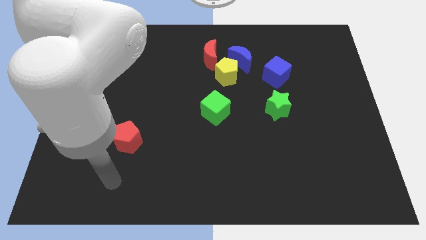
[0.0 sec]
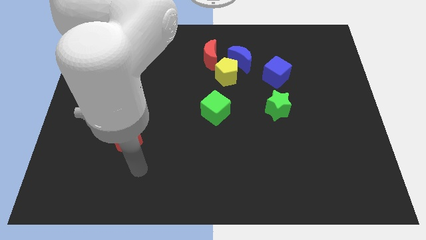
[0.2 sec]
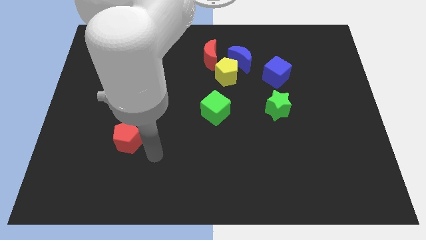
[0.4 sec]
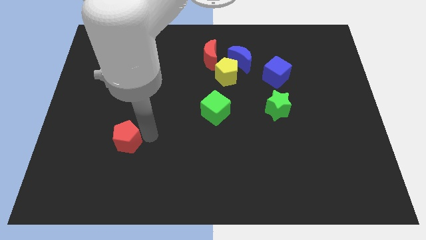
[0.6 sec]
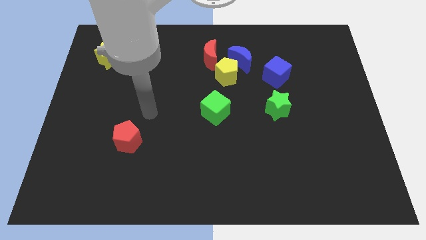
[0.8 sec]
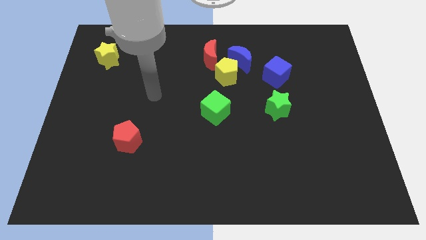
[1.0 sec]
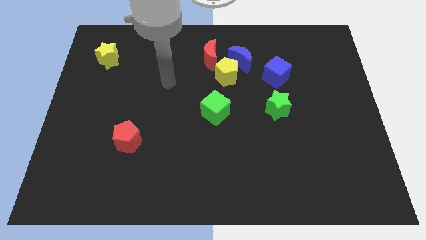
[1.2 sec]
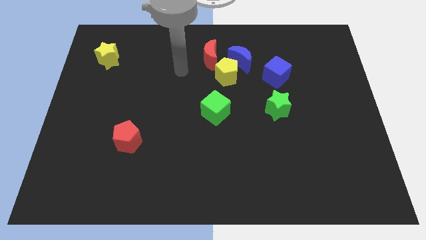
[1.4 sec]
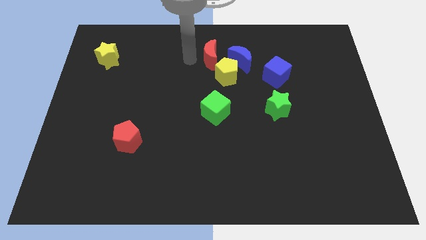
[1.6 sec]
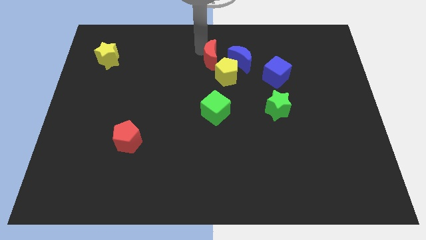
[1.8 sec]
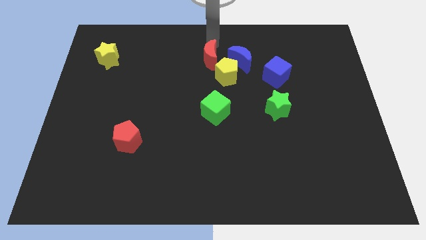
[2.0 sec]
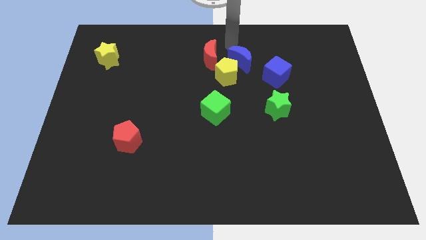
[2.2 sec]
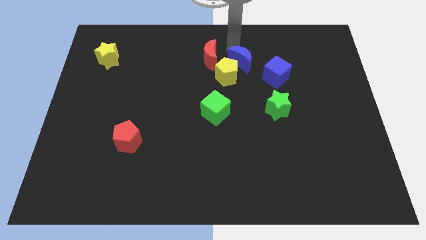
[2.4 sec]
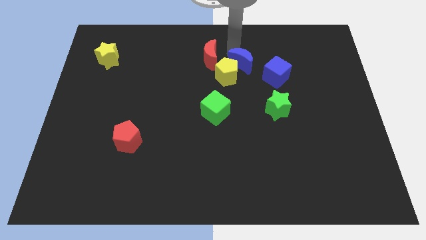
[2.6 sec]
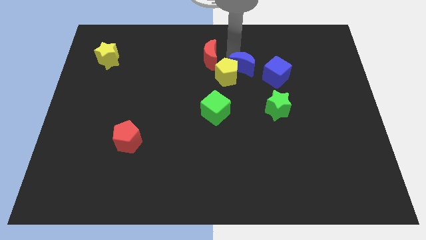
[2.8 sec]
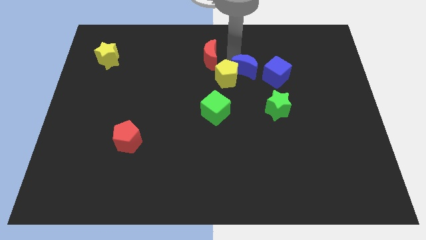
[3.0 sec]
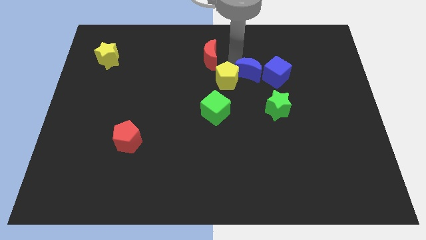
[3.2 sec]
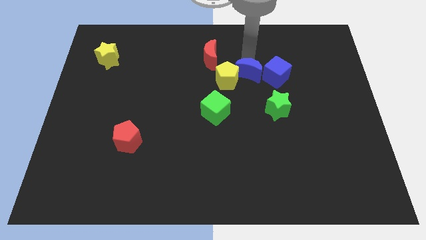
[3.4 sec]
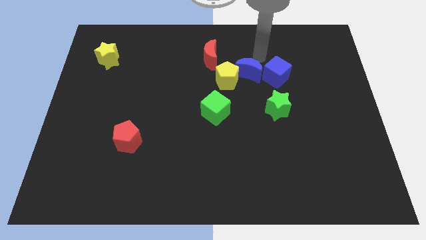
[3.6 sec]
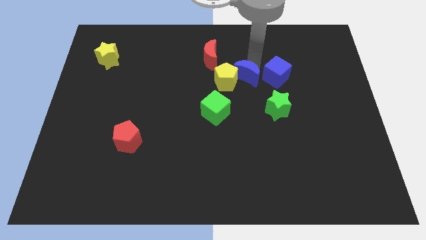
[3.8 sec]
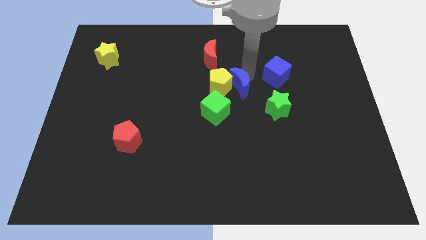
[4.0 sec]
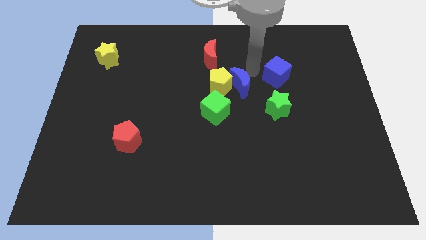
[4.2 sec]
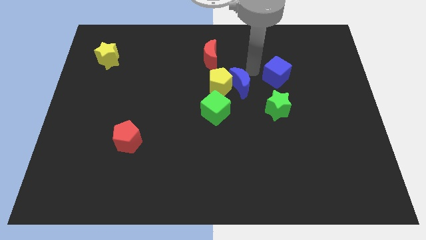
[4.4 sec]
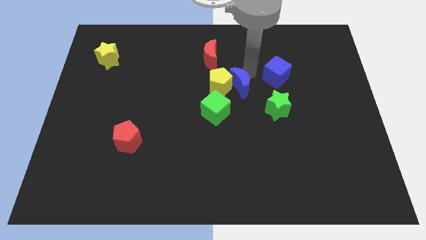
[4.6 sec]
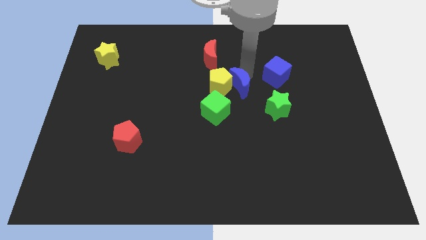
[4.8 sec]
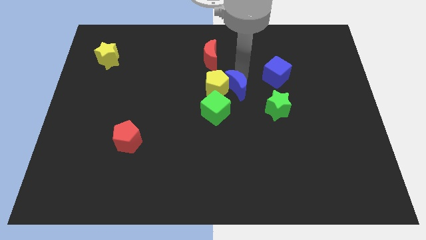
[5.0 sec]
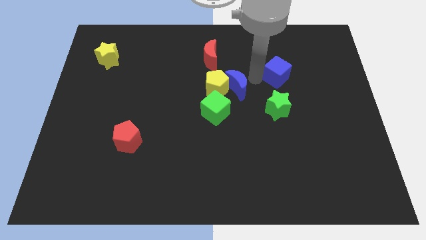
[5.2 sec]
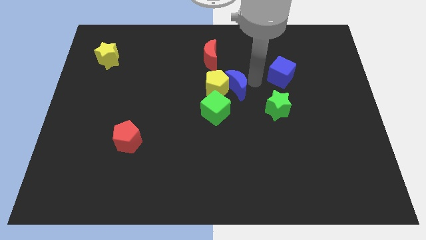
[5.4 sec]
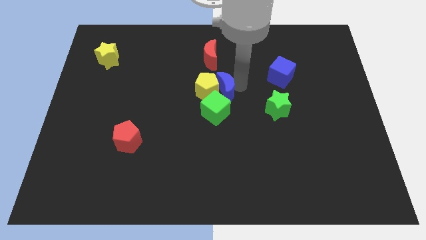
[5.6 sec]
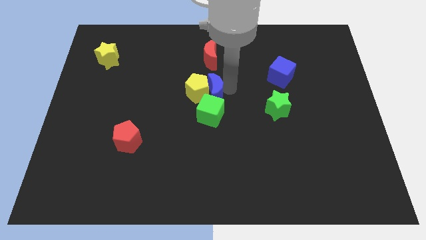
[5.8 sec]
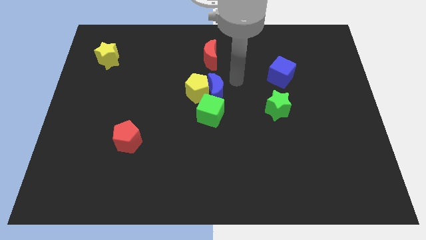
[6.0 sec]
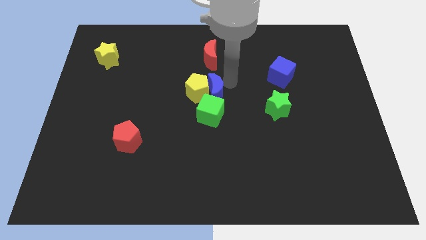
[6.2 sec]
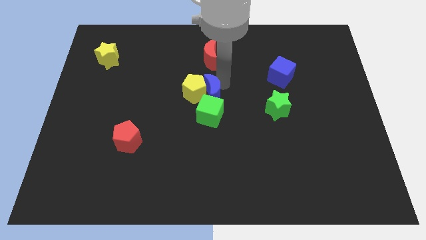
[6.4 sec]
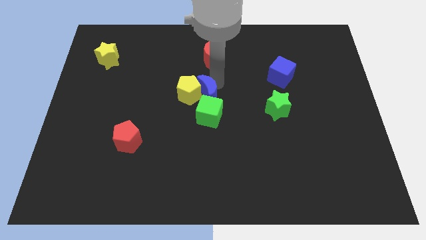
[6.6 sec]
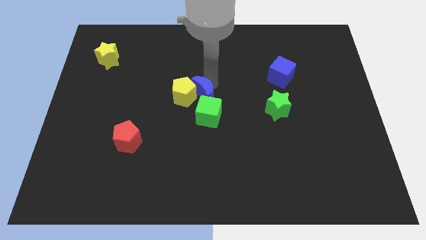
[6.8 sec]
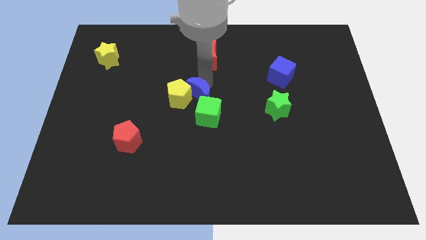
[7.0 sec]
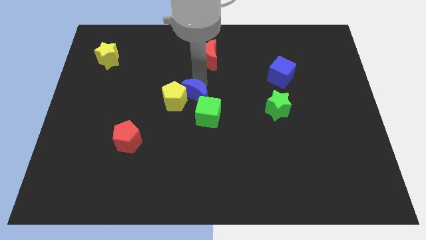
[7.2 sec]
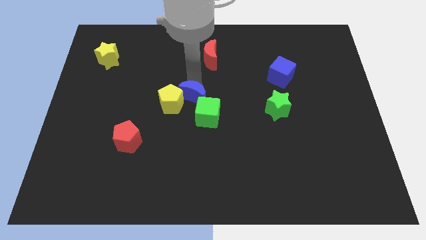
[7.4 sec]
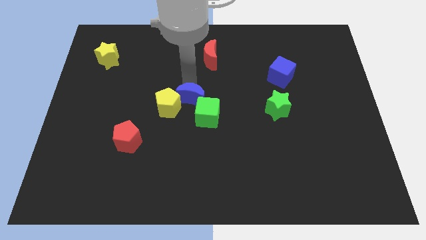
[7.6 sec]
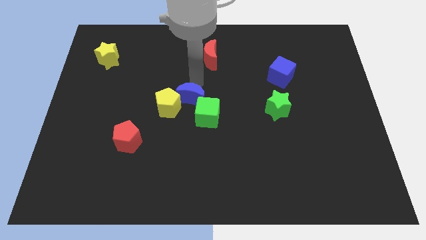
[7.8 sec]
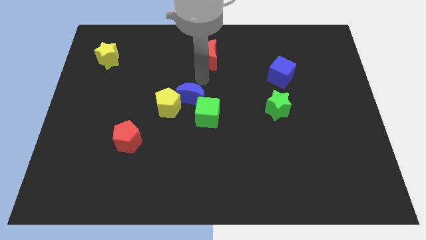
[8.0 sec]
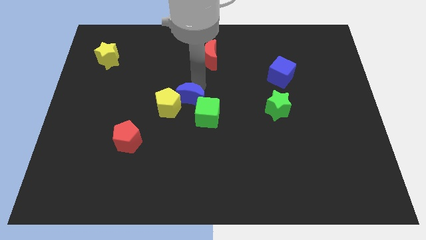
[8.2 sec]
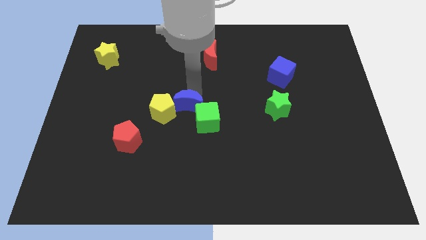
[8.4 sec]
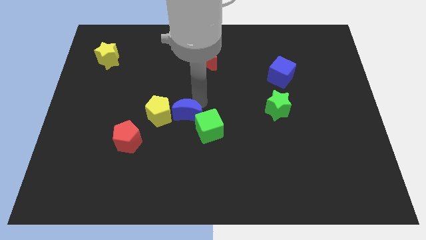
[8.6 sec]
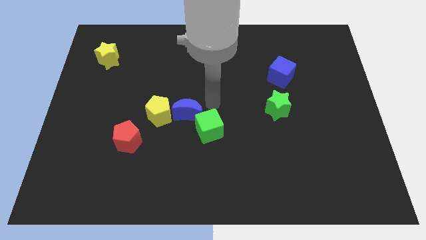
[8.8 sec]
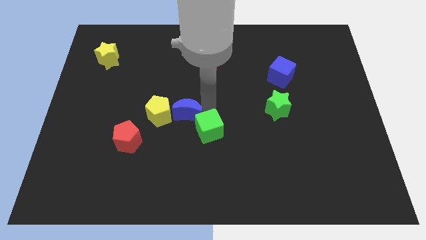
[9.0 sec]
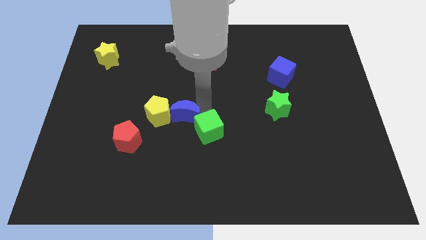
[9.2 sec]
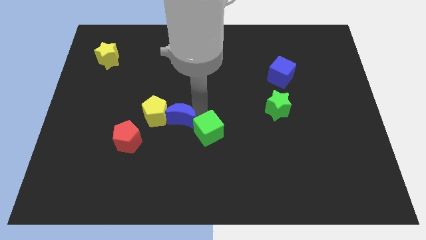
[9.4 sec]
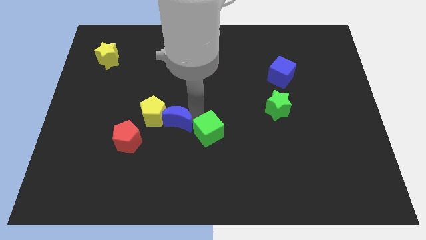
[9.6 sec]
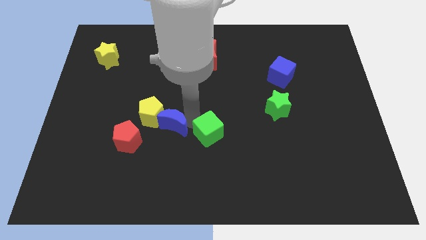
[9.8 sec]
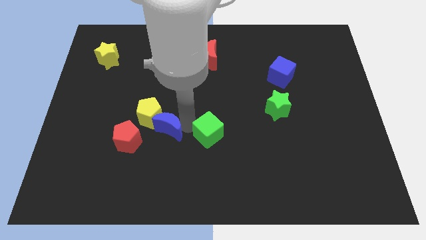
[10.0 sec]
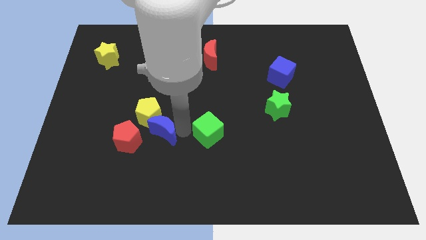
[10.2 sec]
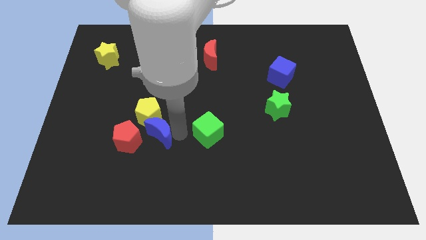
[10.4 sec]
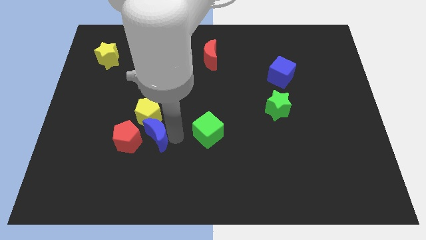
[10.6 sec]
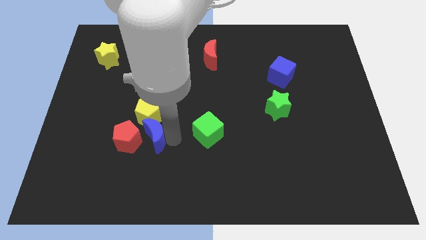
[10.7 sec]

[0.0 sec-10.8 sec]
slide the blue moon close to the red pentagon

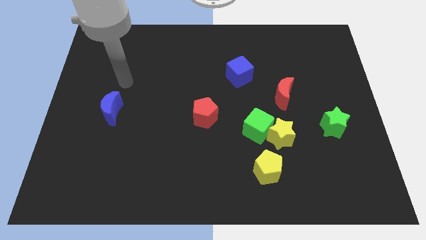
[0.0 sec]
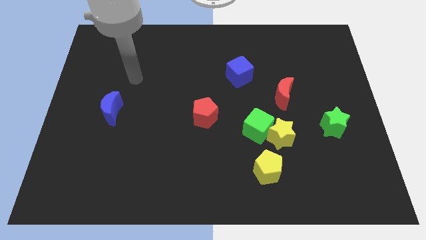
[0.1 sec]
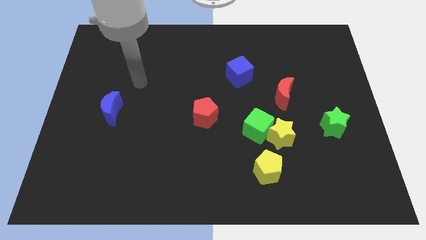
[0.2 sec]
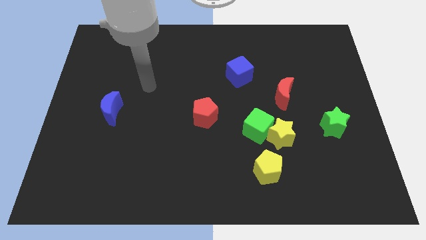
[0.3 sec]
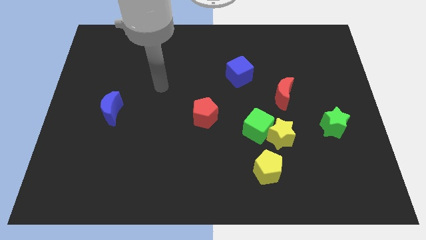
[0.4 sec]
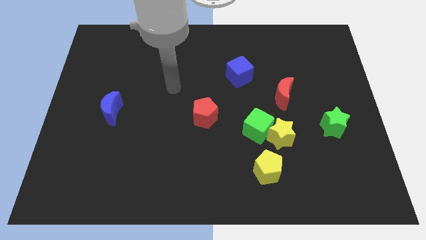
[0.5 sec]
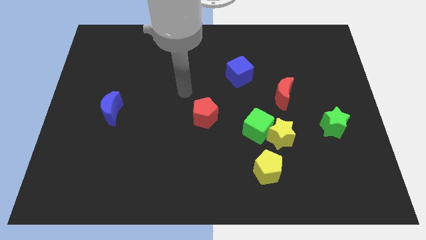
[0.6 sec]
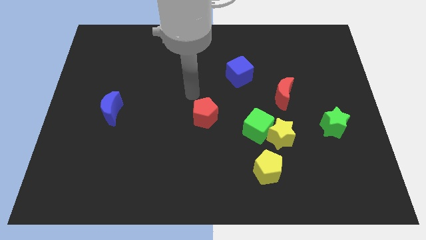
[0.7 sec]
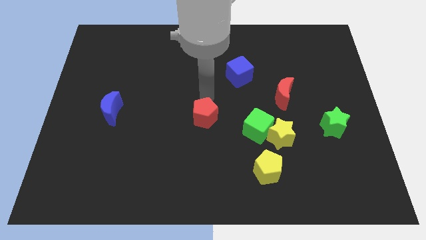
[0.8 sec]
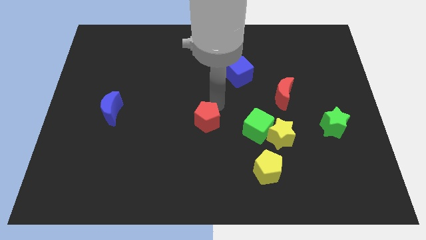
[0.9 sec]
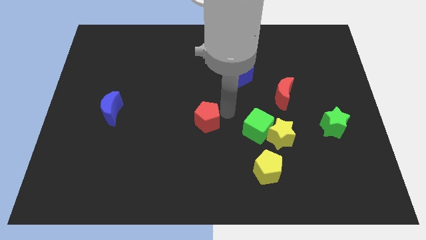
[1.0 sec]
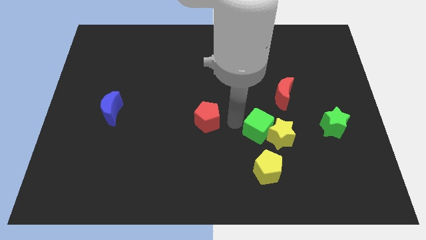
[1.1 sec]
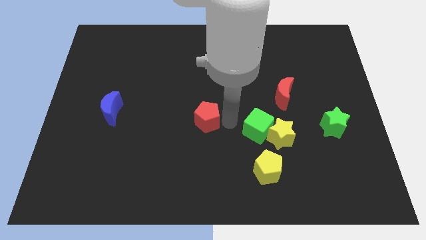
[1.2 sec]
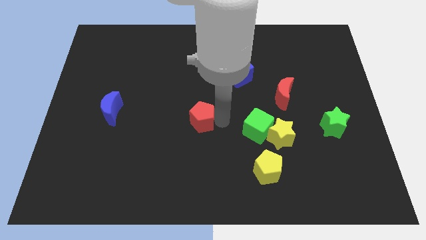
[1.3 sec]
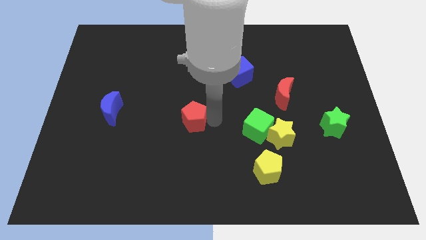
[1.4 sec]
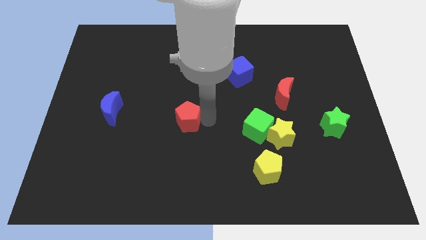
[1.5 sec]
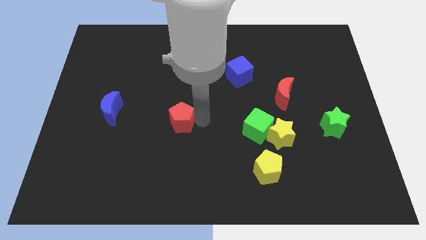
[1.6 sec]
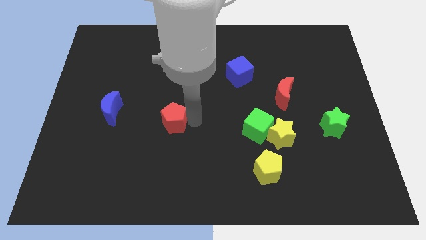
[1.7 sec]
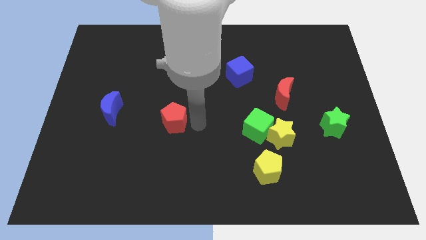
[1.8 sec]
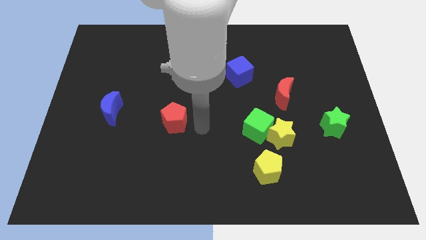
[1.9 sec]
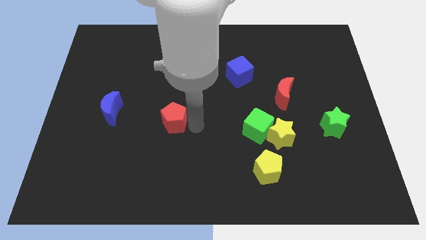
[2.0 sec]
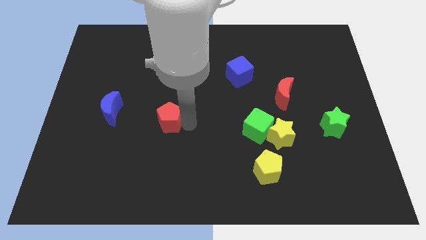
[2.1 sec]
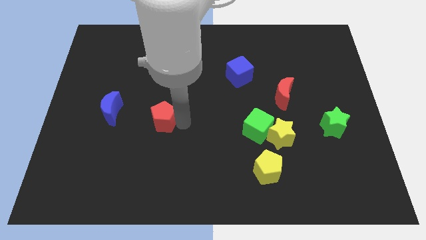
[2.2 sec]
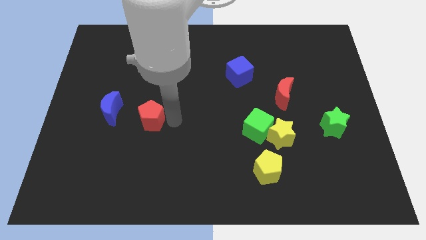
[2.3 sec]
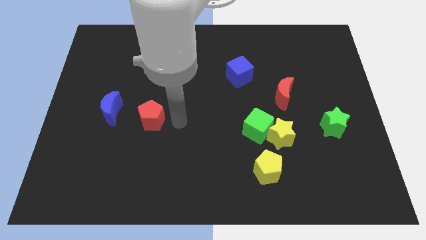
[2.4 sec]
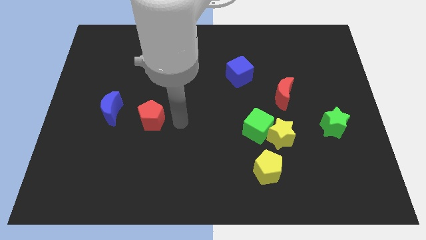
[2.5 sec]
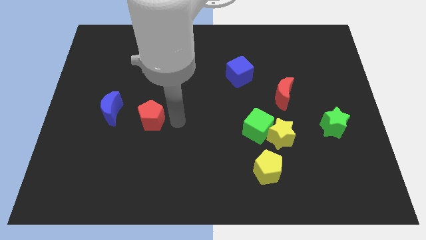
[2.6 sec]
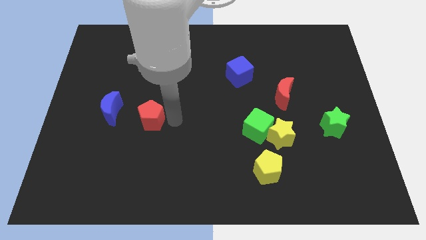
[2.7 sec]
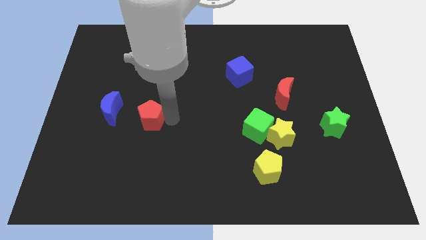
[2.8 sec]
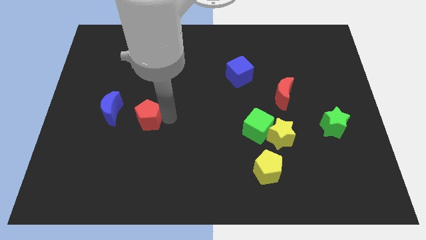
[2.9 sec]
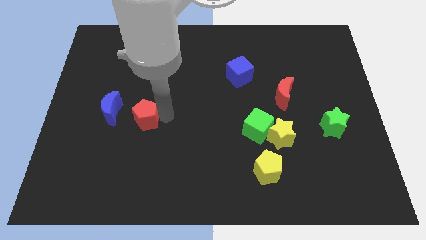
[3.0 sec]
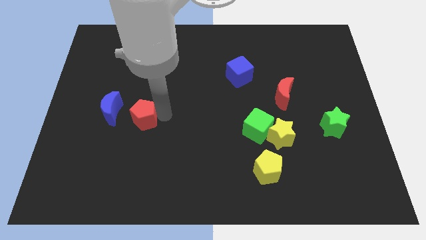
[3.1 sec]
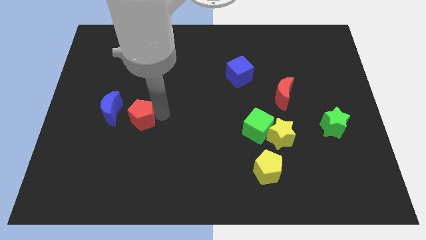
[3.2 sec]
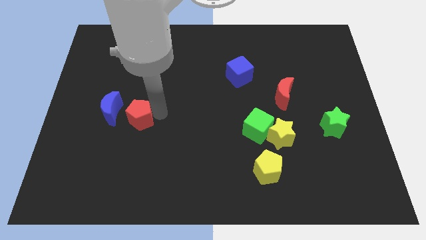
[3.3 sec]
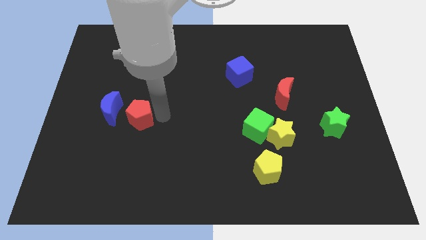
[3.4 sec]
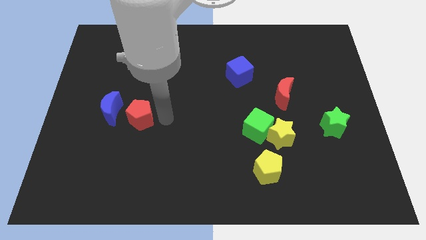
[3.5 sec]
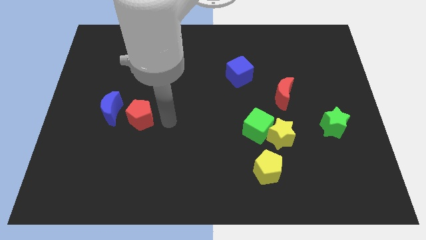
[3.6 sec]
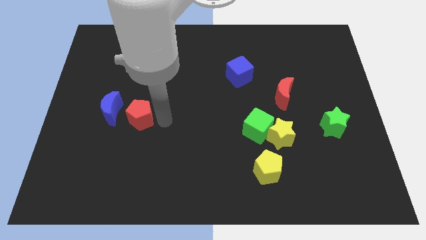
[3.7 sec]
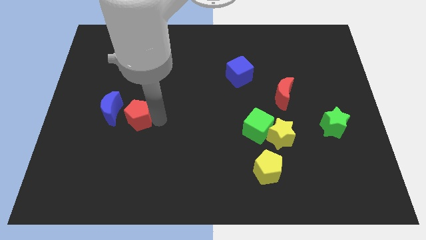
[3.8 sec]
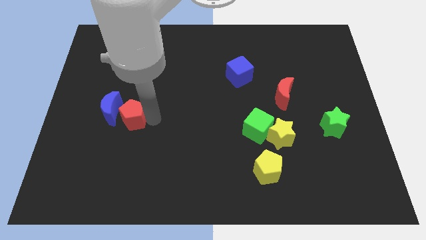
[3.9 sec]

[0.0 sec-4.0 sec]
move the red pentagon close to the blue moon
